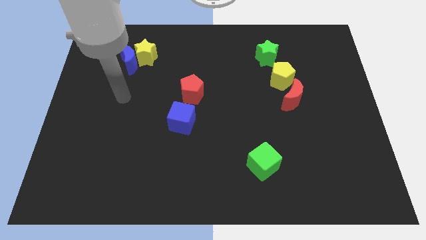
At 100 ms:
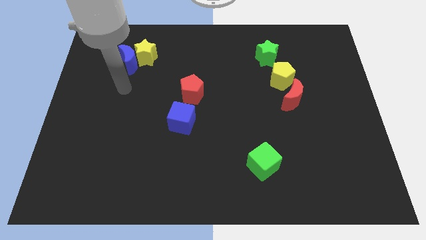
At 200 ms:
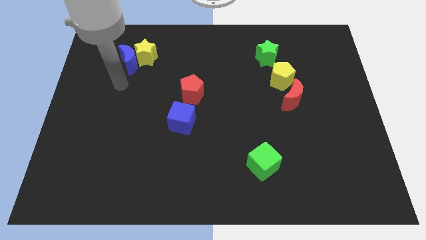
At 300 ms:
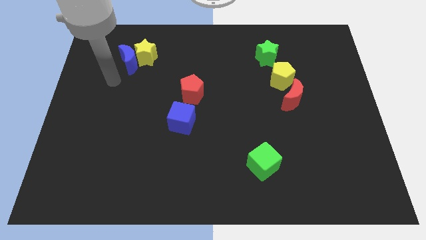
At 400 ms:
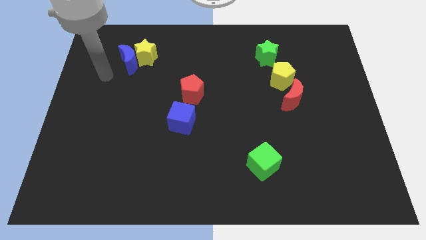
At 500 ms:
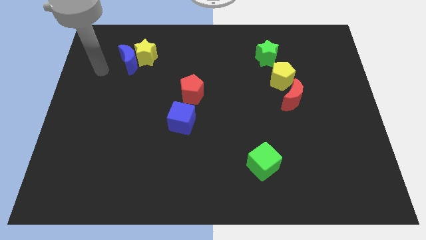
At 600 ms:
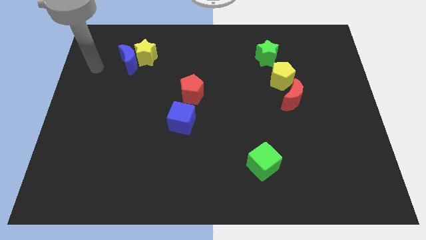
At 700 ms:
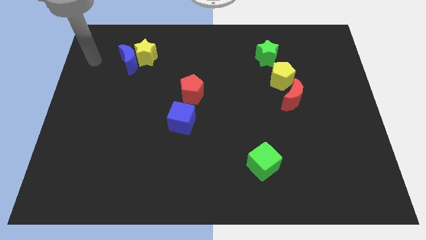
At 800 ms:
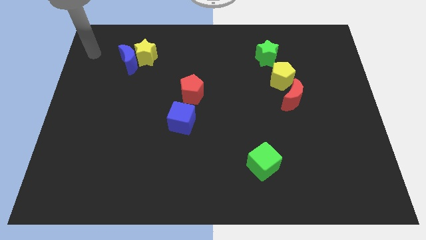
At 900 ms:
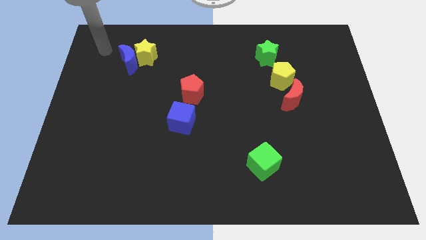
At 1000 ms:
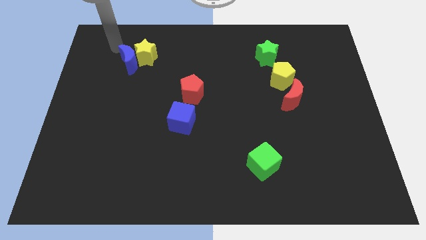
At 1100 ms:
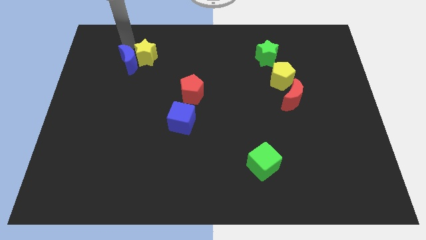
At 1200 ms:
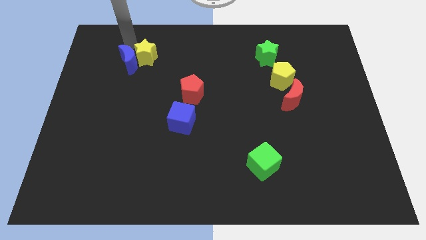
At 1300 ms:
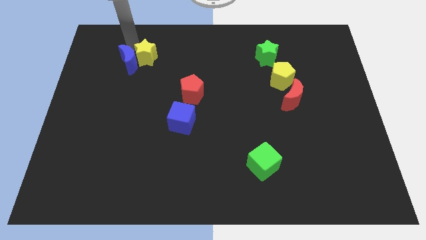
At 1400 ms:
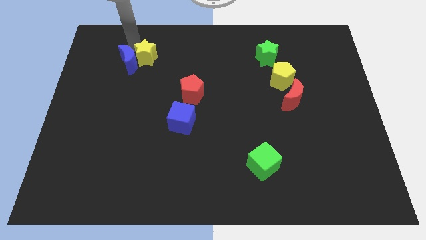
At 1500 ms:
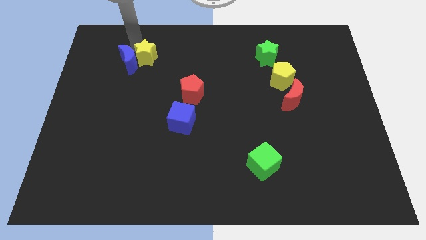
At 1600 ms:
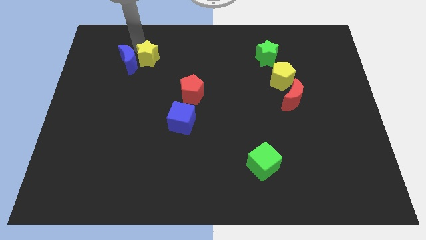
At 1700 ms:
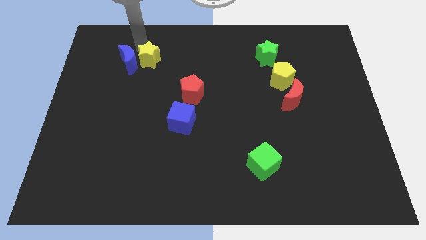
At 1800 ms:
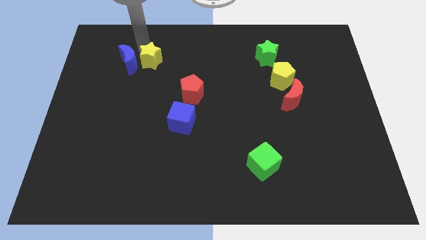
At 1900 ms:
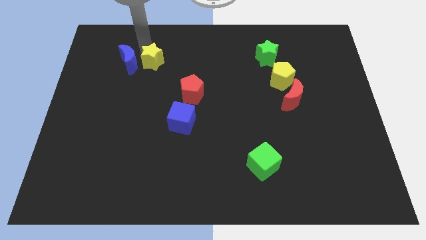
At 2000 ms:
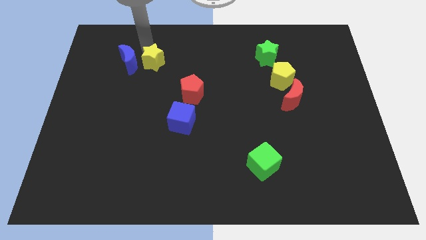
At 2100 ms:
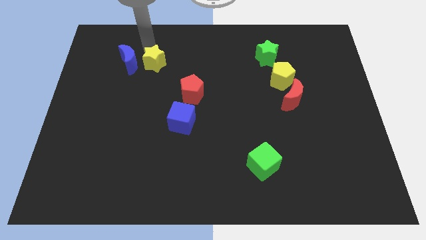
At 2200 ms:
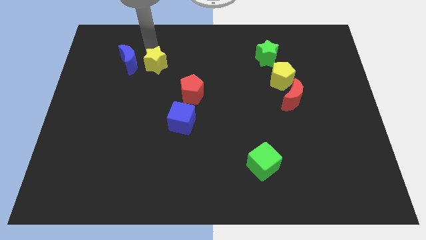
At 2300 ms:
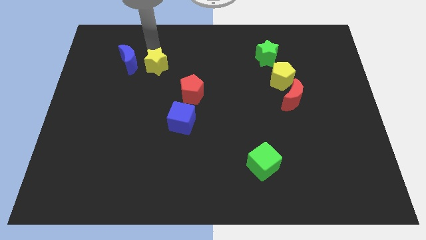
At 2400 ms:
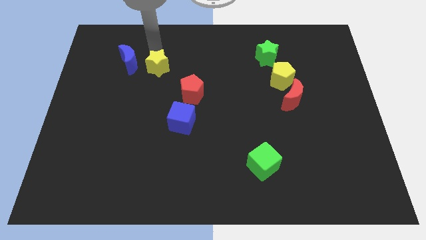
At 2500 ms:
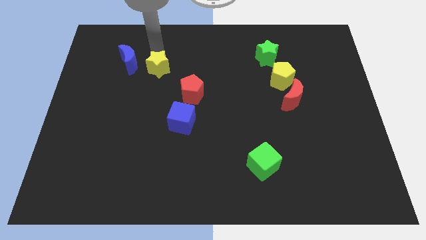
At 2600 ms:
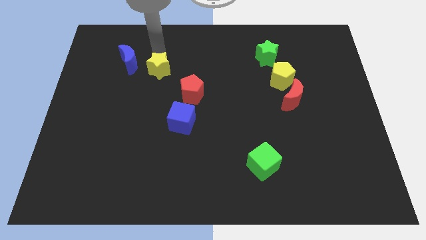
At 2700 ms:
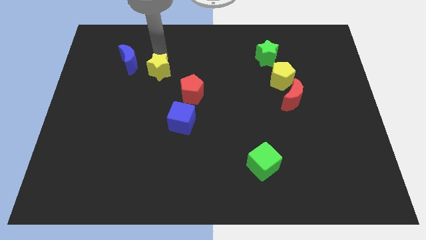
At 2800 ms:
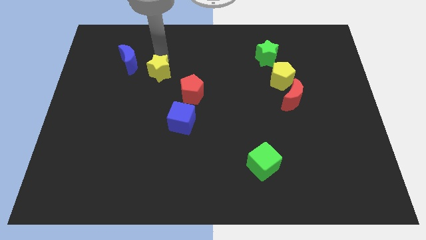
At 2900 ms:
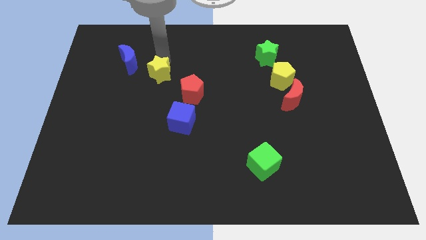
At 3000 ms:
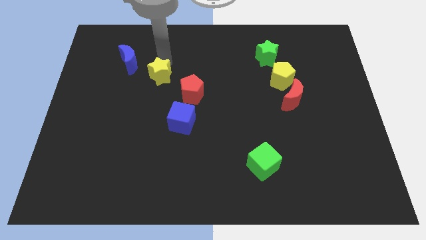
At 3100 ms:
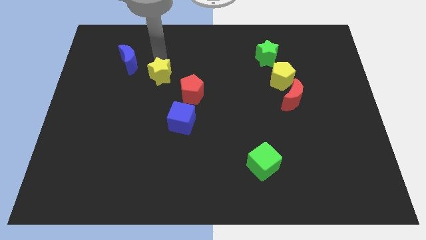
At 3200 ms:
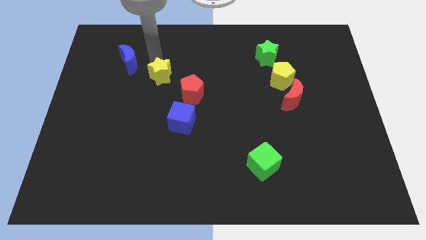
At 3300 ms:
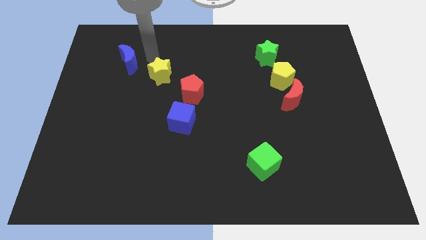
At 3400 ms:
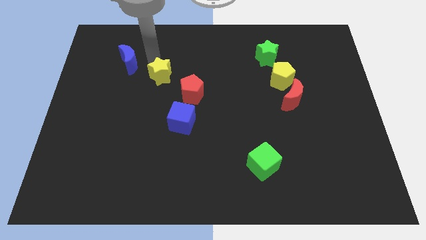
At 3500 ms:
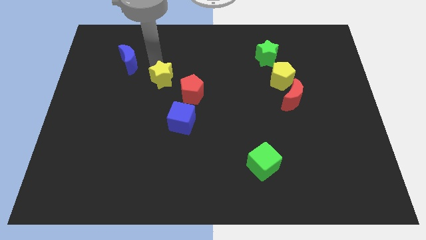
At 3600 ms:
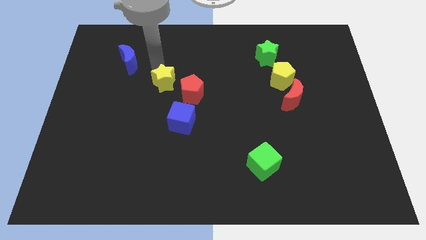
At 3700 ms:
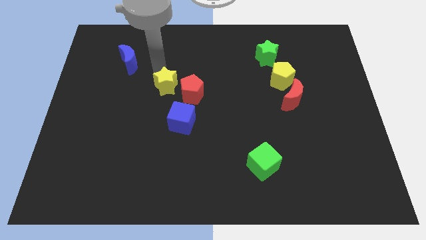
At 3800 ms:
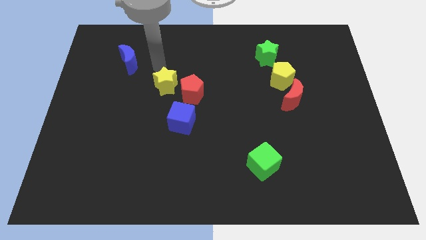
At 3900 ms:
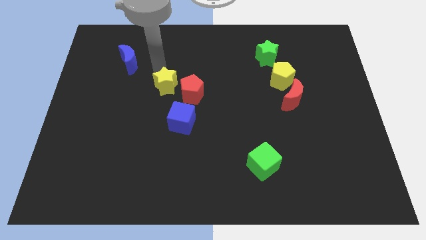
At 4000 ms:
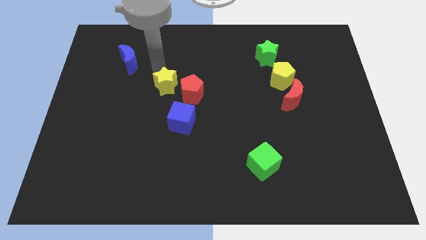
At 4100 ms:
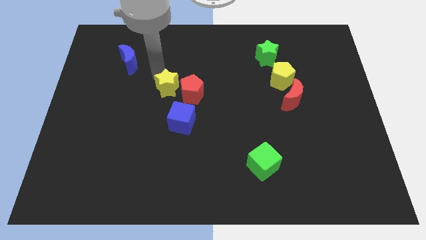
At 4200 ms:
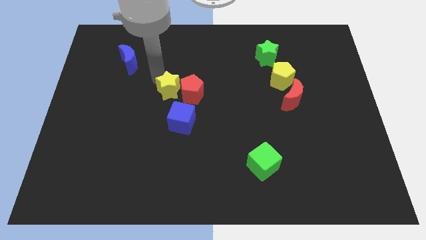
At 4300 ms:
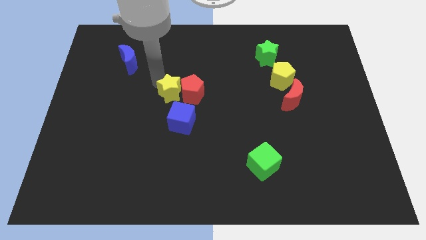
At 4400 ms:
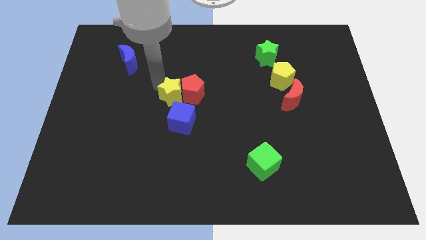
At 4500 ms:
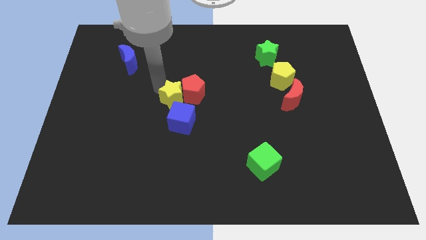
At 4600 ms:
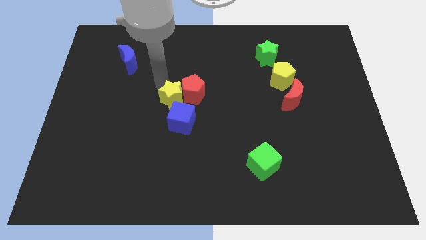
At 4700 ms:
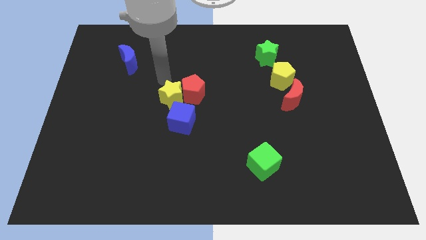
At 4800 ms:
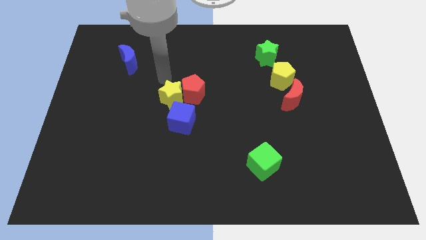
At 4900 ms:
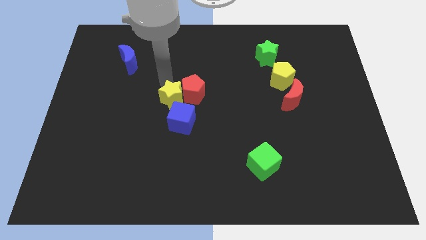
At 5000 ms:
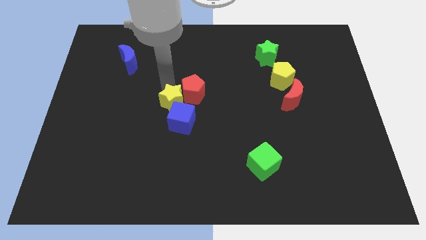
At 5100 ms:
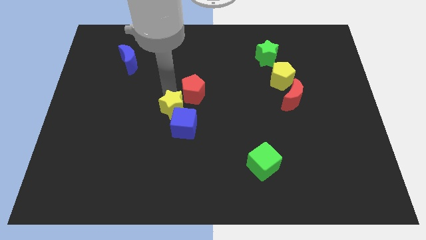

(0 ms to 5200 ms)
slide the yellow star towards the blue cube

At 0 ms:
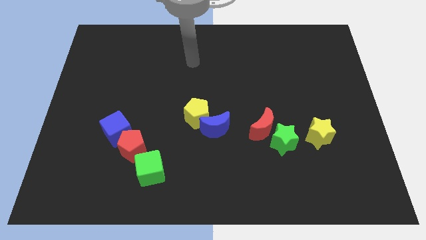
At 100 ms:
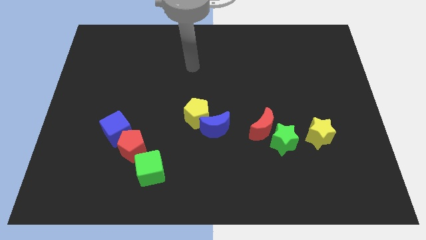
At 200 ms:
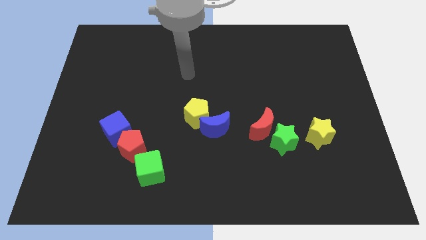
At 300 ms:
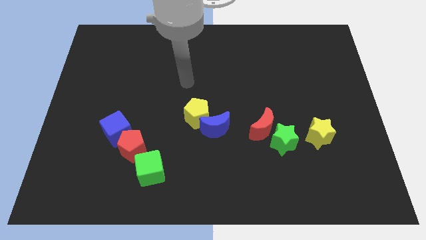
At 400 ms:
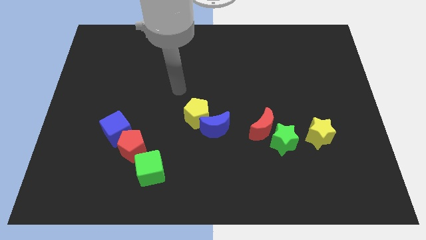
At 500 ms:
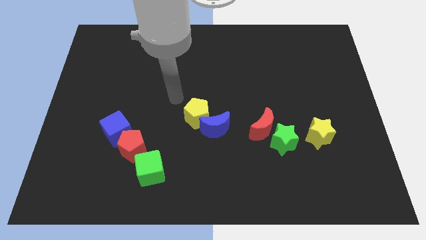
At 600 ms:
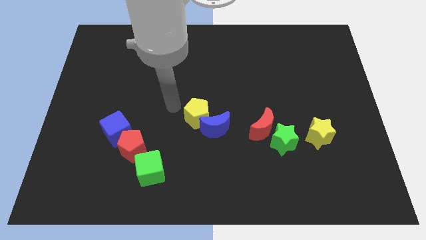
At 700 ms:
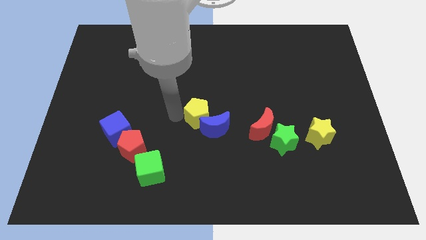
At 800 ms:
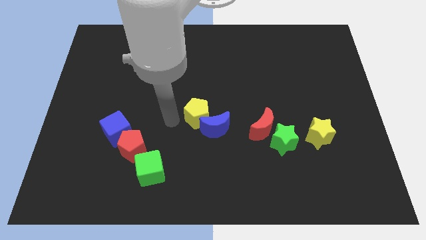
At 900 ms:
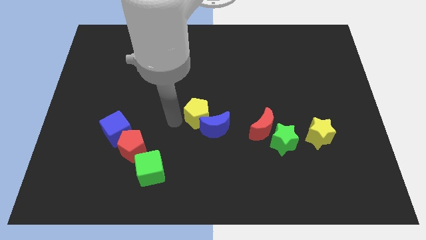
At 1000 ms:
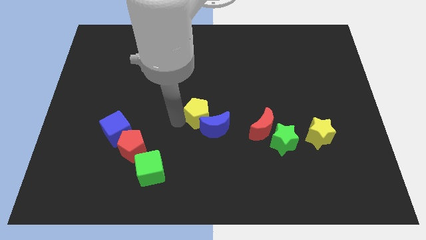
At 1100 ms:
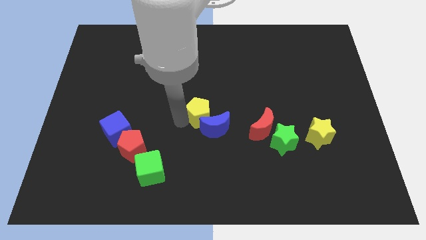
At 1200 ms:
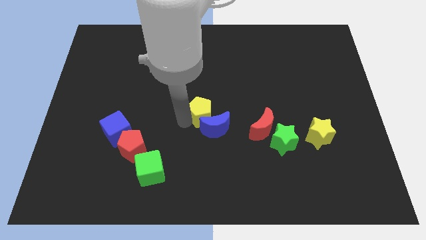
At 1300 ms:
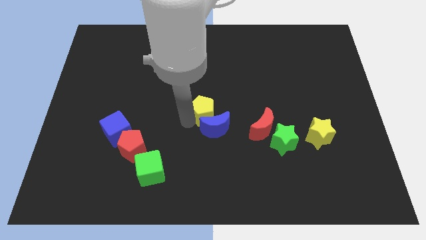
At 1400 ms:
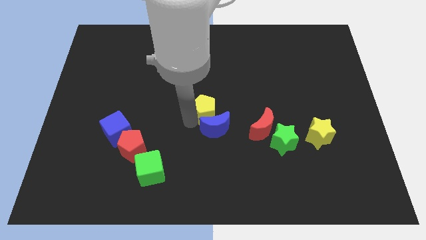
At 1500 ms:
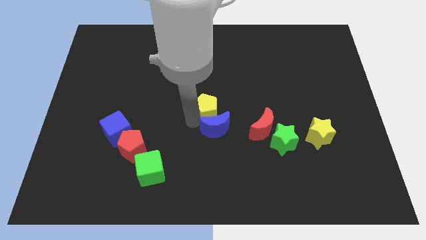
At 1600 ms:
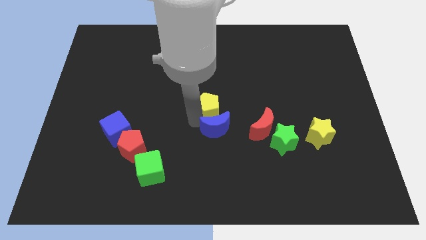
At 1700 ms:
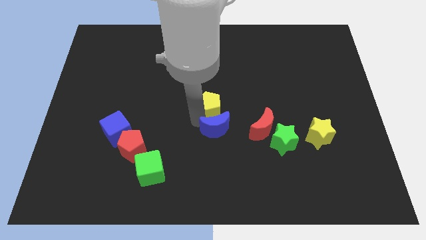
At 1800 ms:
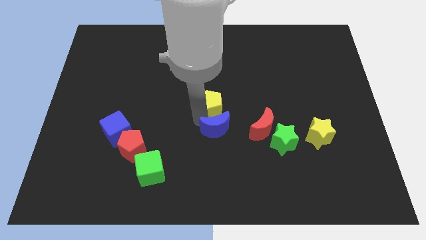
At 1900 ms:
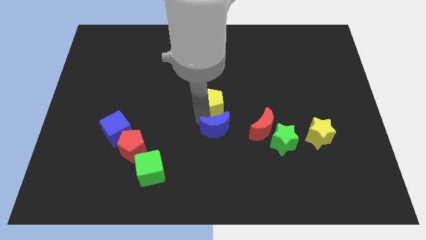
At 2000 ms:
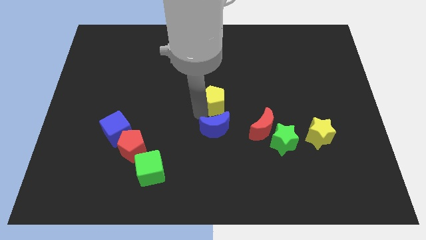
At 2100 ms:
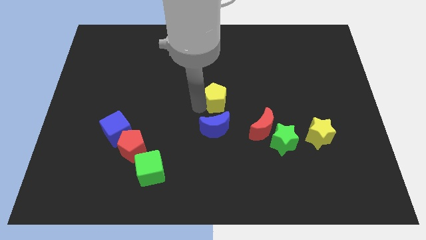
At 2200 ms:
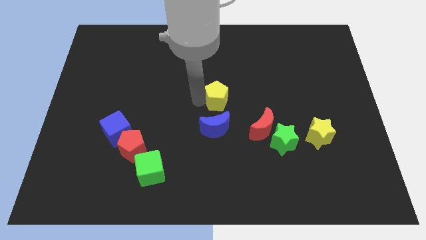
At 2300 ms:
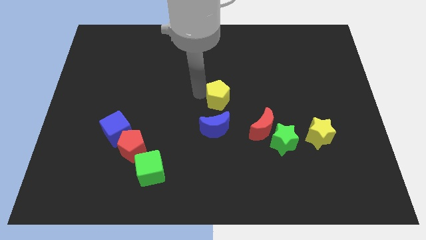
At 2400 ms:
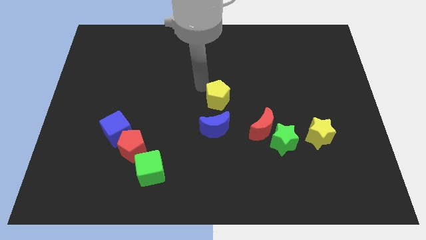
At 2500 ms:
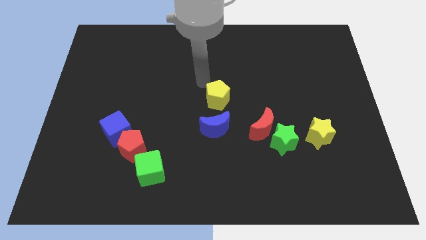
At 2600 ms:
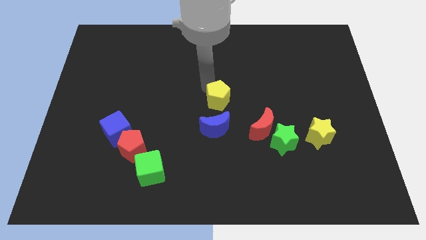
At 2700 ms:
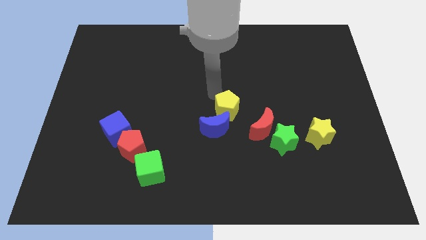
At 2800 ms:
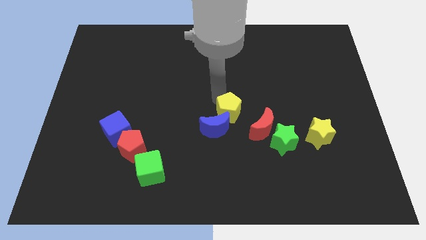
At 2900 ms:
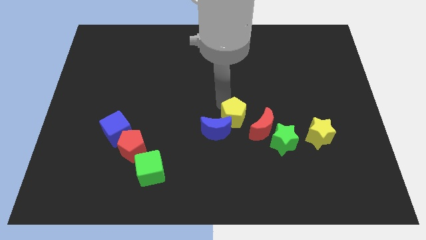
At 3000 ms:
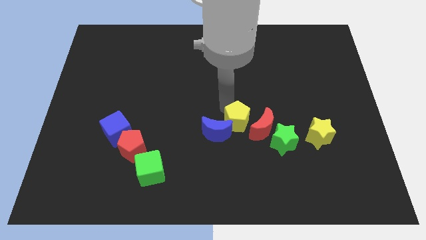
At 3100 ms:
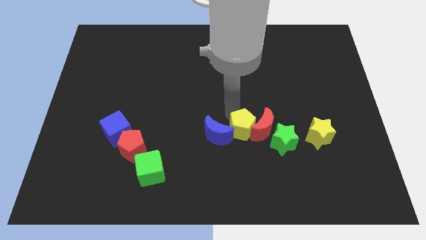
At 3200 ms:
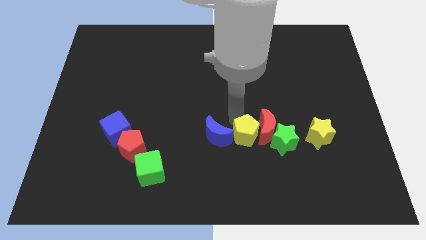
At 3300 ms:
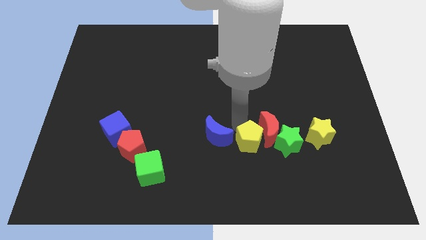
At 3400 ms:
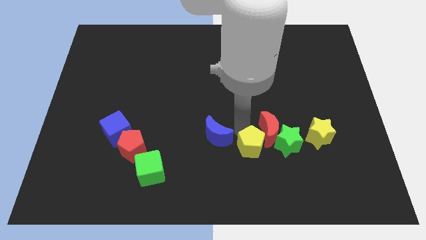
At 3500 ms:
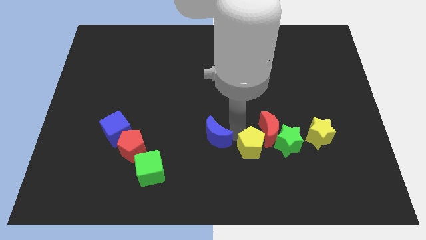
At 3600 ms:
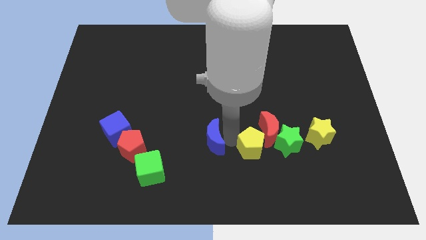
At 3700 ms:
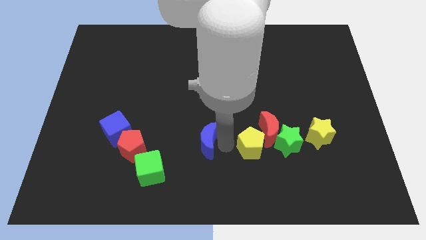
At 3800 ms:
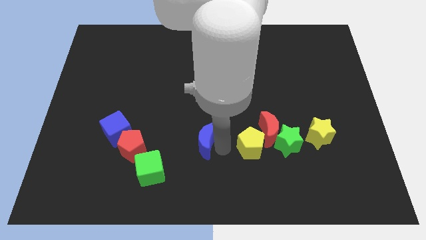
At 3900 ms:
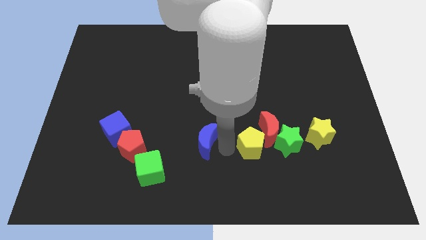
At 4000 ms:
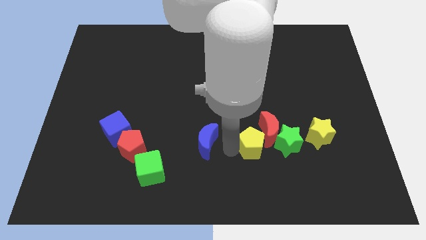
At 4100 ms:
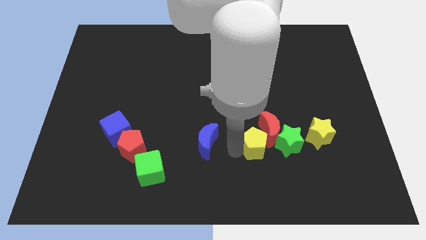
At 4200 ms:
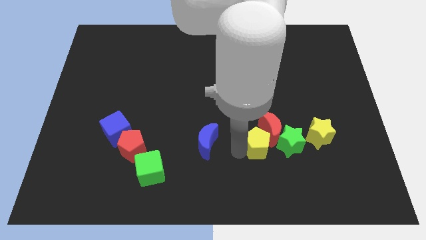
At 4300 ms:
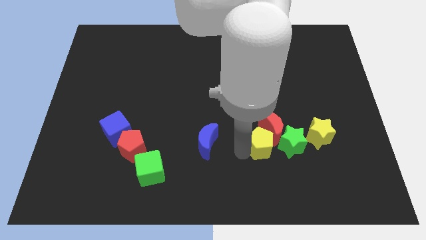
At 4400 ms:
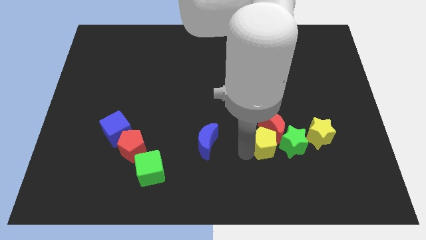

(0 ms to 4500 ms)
slide the yellow pentagon next to the green star
